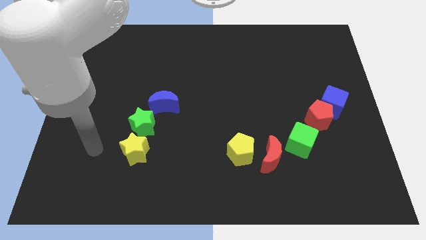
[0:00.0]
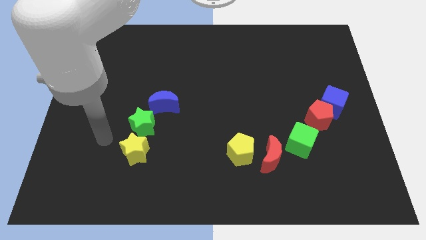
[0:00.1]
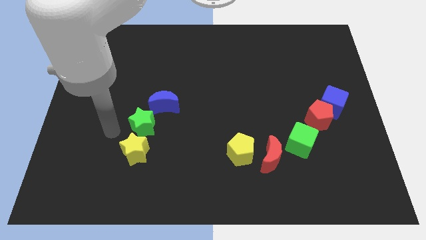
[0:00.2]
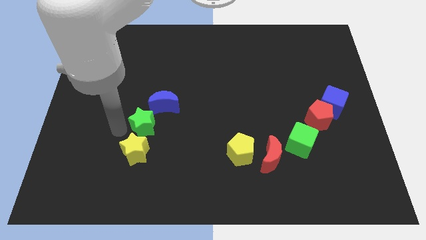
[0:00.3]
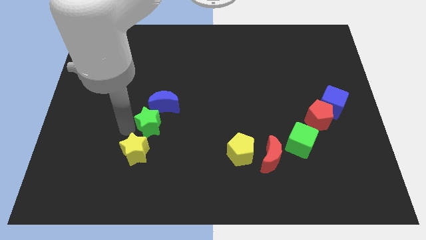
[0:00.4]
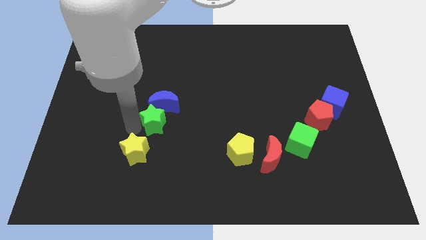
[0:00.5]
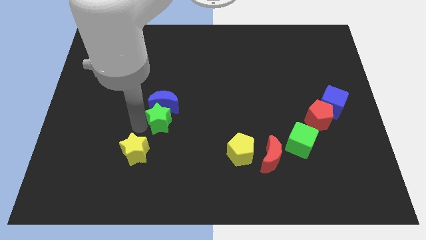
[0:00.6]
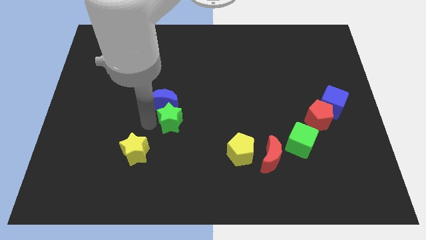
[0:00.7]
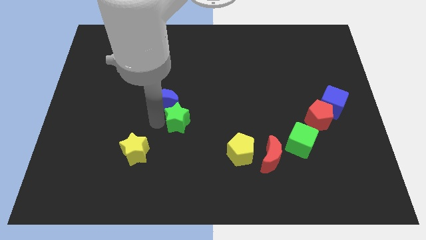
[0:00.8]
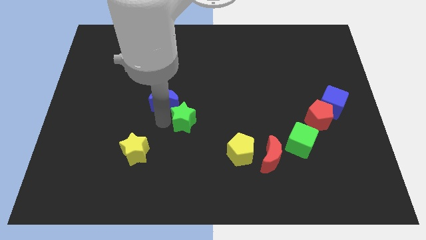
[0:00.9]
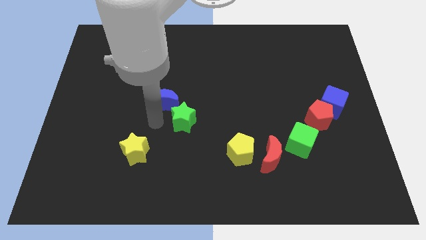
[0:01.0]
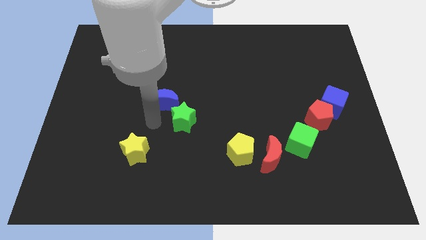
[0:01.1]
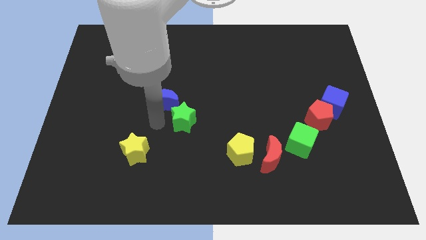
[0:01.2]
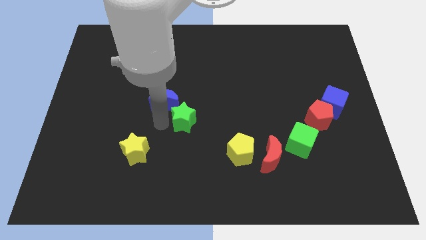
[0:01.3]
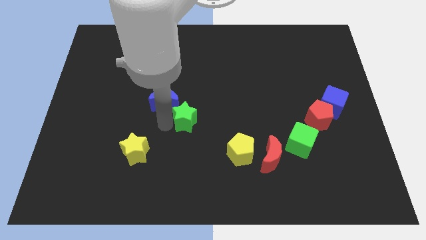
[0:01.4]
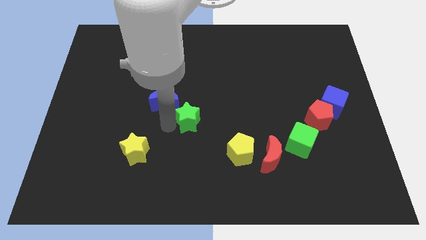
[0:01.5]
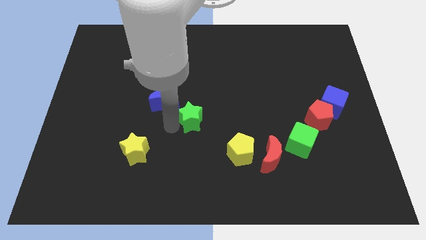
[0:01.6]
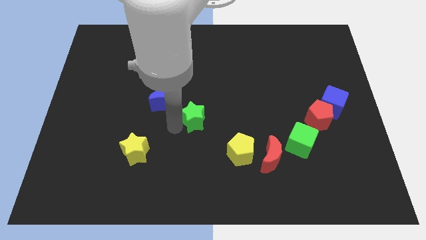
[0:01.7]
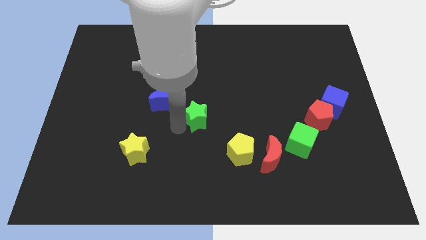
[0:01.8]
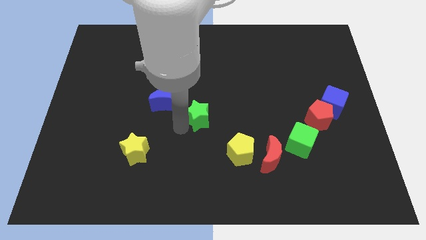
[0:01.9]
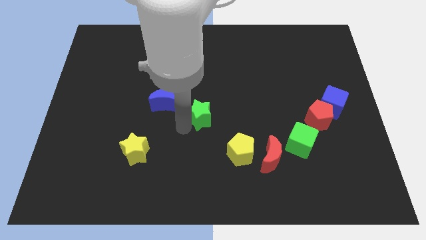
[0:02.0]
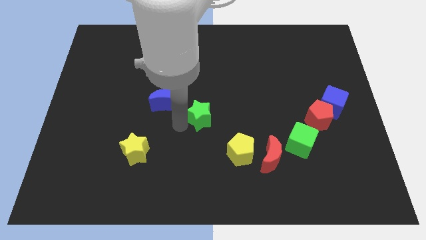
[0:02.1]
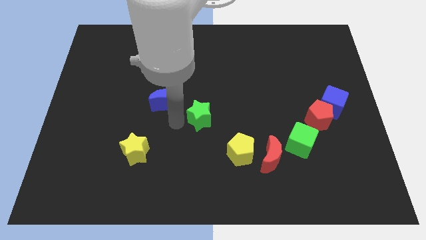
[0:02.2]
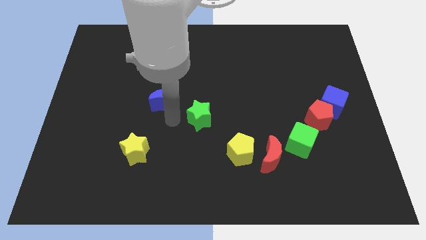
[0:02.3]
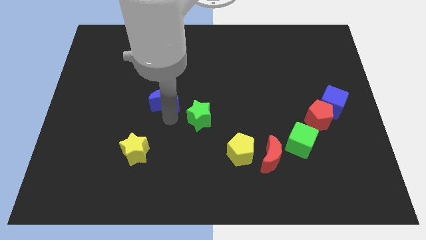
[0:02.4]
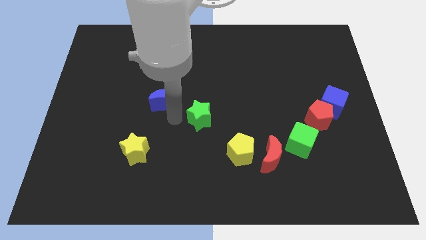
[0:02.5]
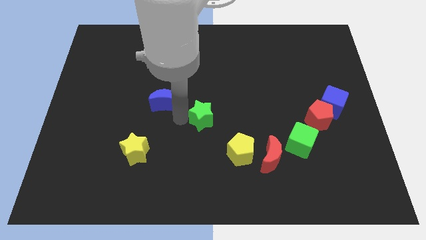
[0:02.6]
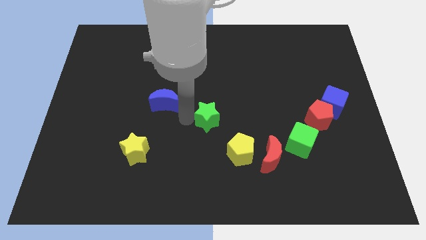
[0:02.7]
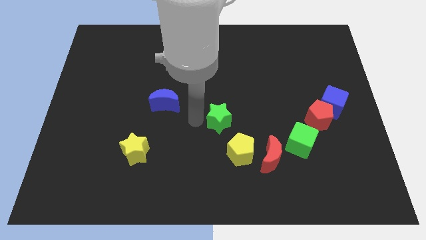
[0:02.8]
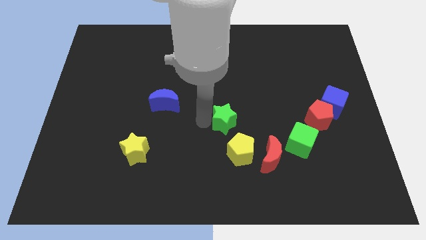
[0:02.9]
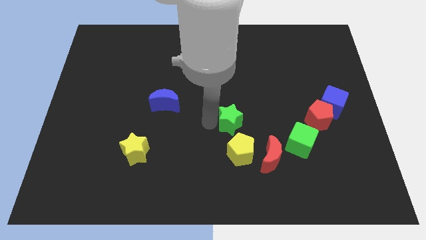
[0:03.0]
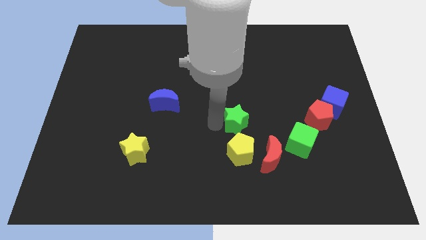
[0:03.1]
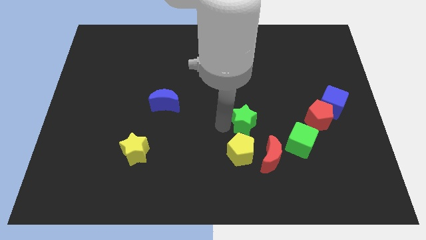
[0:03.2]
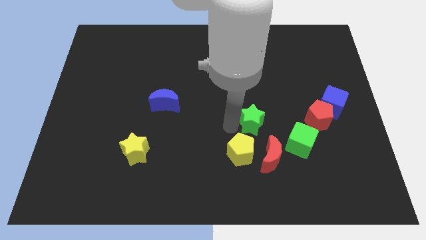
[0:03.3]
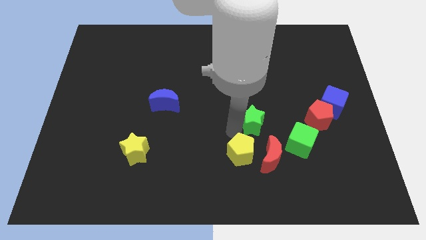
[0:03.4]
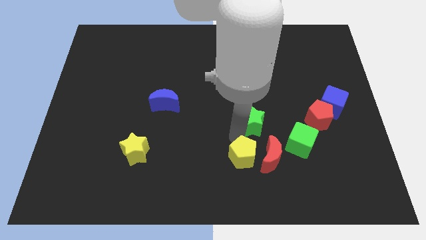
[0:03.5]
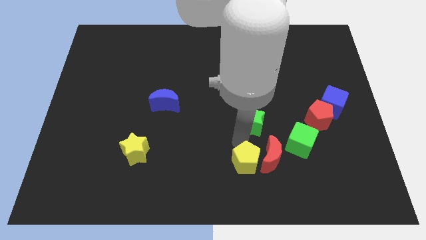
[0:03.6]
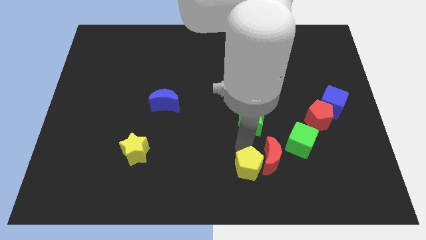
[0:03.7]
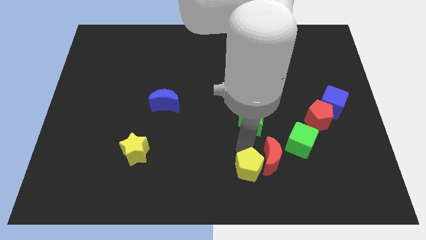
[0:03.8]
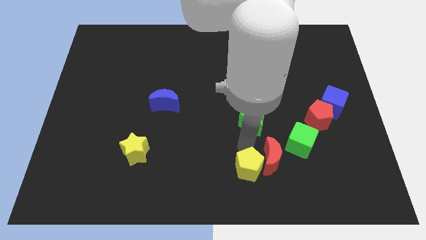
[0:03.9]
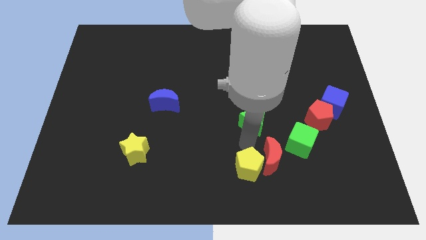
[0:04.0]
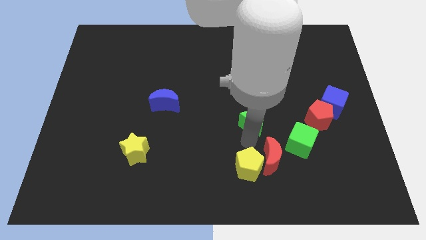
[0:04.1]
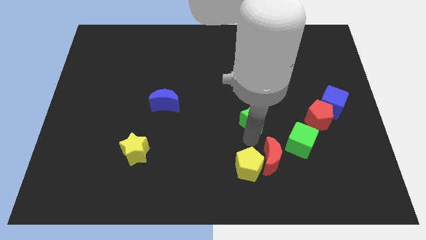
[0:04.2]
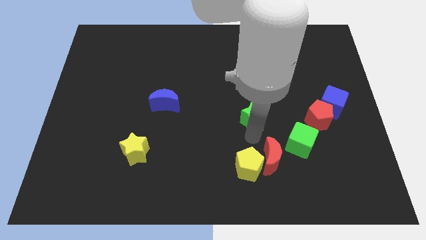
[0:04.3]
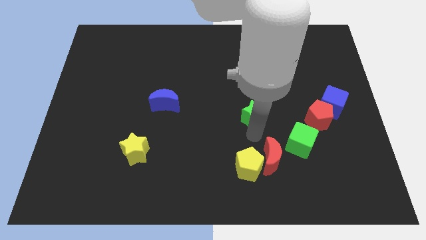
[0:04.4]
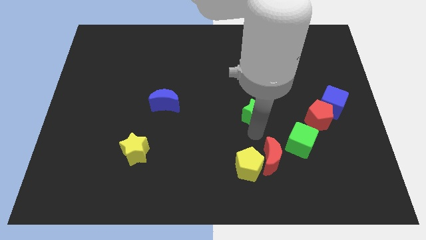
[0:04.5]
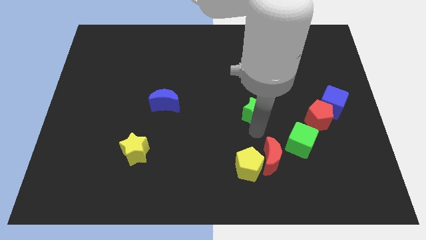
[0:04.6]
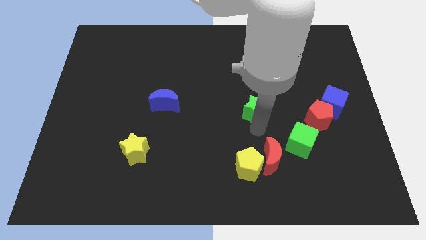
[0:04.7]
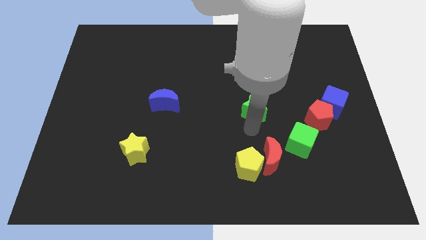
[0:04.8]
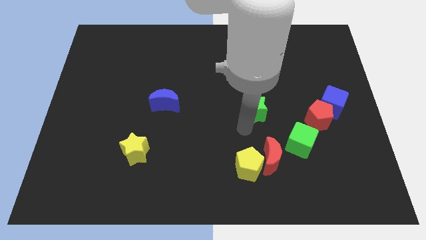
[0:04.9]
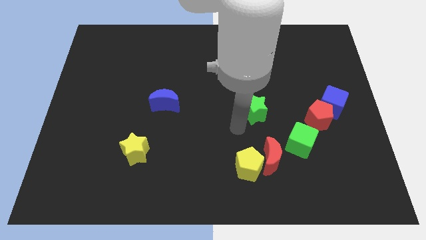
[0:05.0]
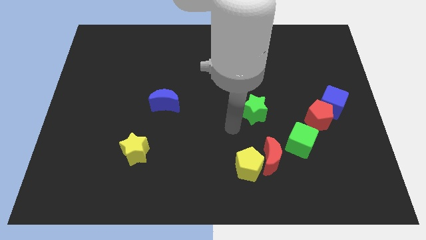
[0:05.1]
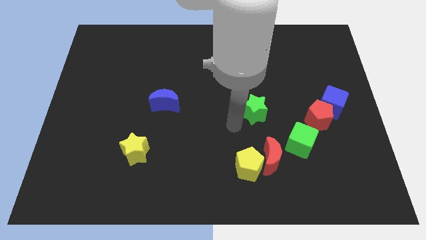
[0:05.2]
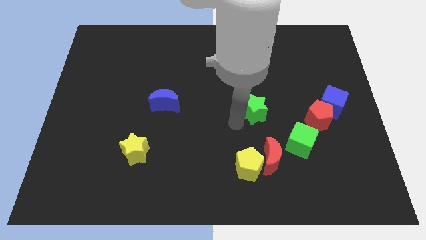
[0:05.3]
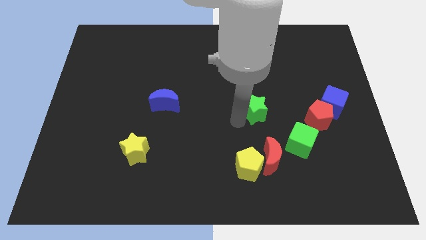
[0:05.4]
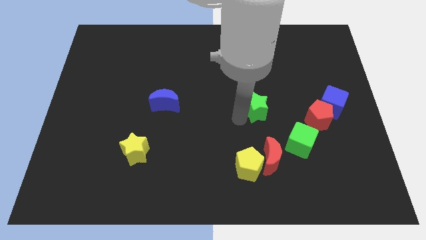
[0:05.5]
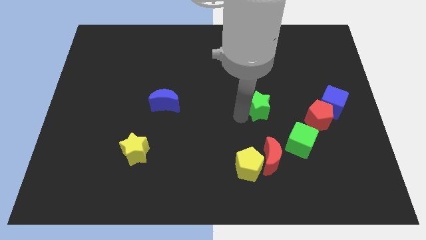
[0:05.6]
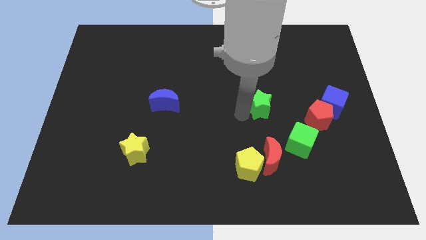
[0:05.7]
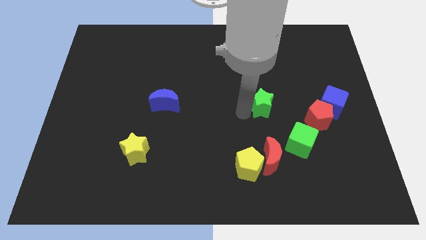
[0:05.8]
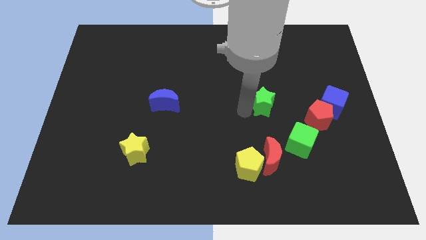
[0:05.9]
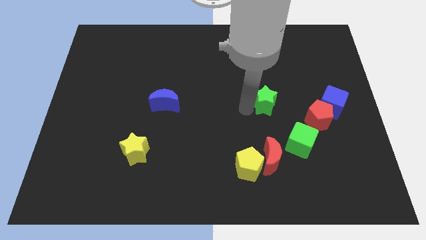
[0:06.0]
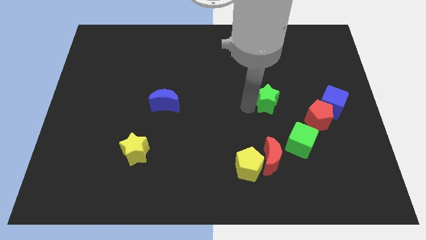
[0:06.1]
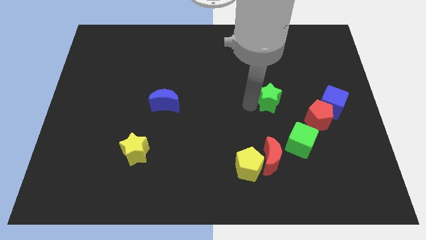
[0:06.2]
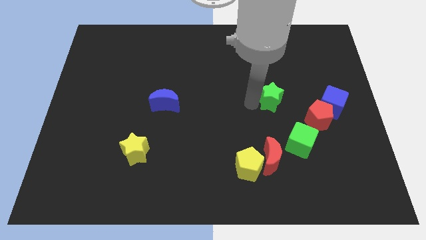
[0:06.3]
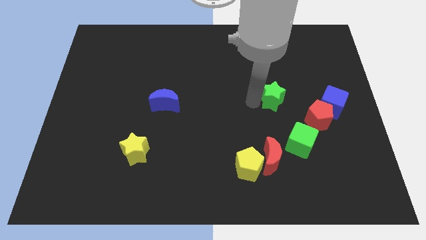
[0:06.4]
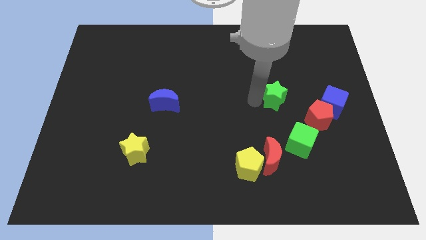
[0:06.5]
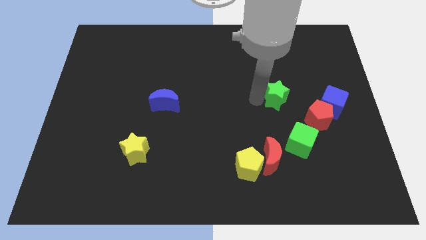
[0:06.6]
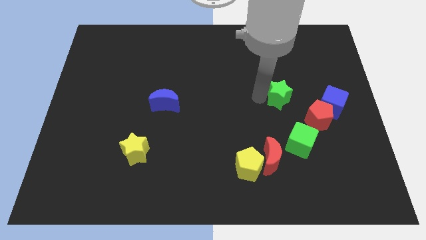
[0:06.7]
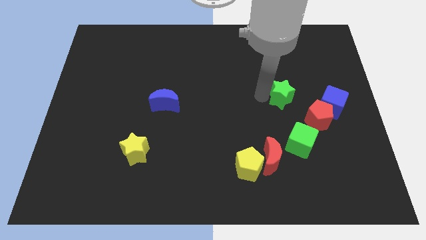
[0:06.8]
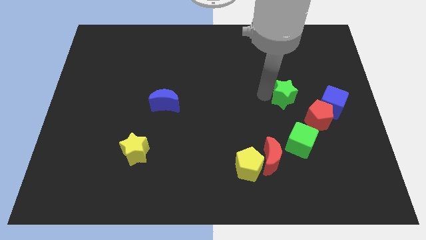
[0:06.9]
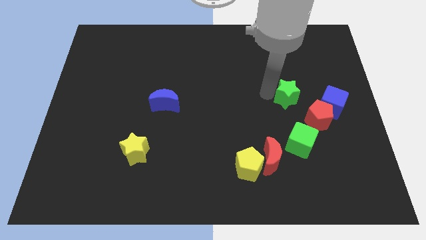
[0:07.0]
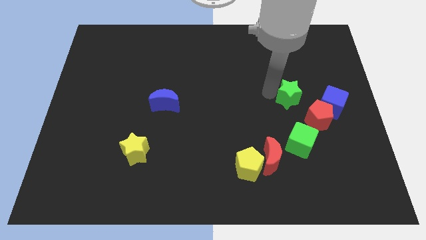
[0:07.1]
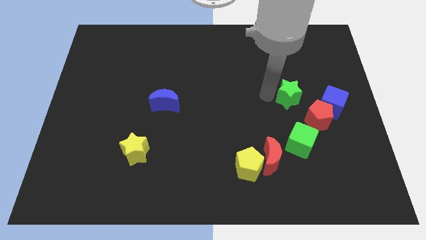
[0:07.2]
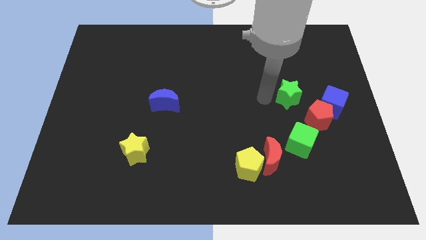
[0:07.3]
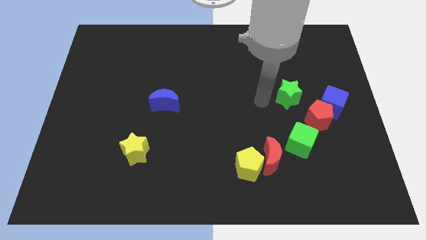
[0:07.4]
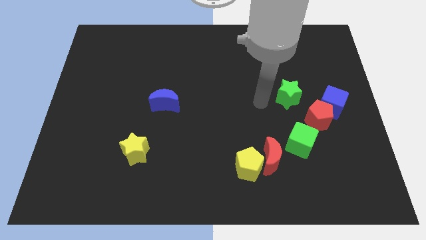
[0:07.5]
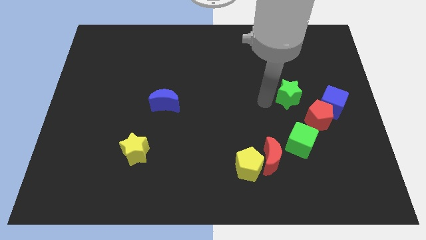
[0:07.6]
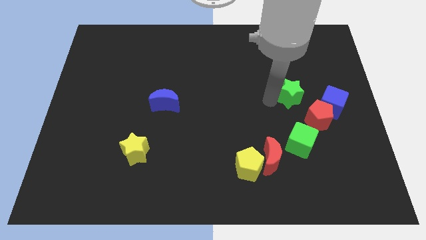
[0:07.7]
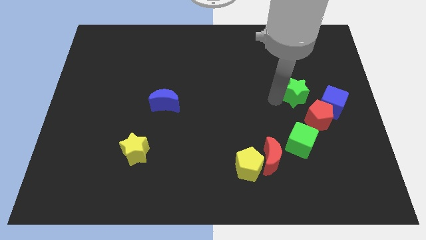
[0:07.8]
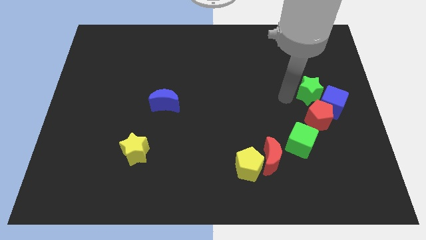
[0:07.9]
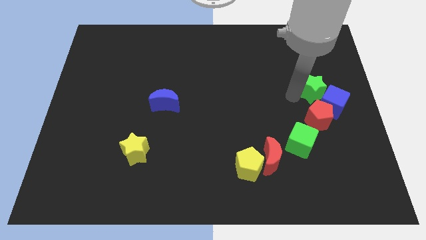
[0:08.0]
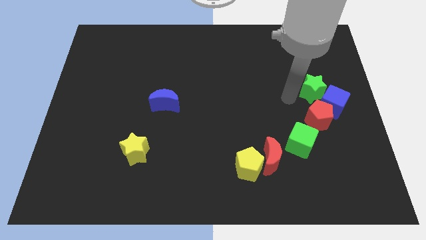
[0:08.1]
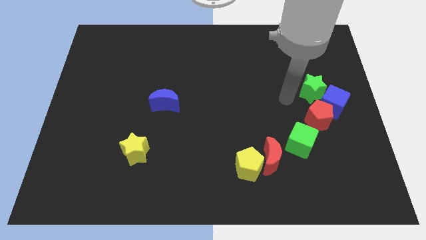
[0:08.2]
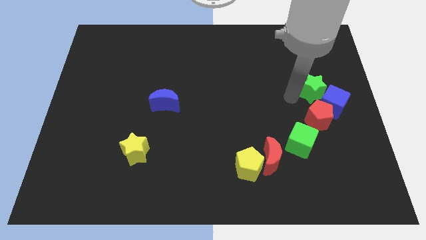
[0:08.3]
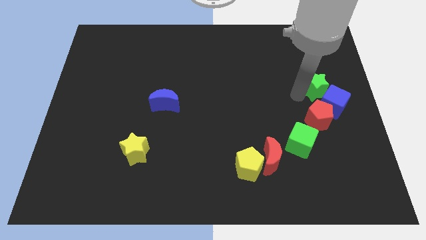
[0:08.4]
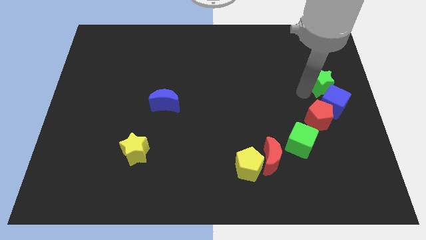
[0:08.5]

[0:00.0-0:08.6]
push the green star to the center right
